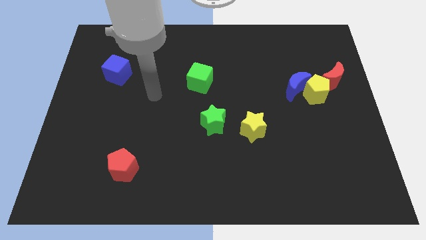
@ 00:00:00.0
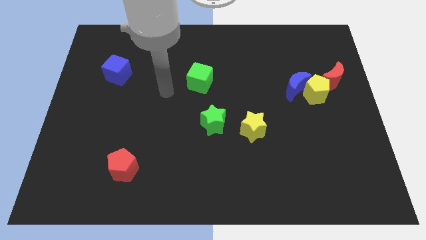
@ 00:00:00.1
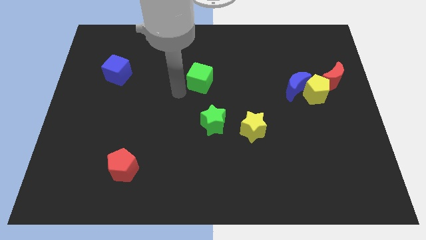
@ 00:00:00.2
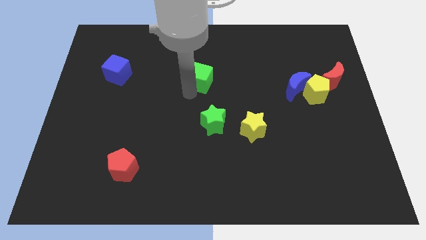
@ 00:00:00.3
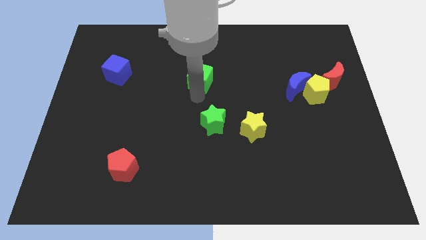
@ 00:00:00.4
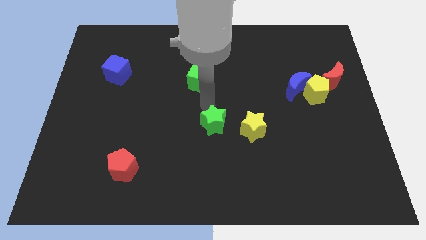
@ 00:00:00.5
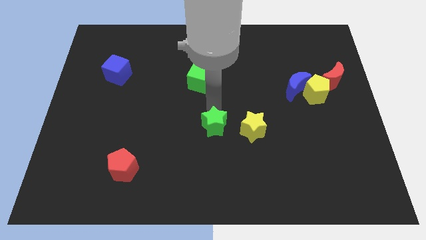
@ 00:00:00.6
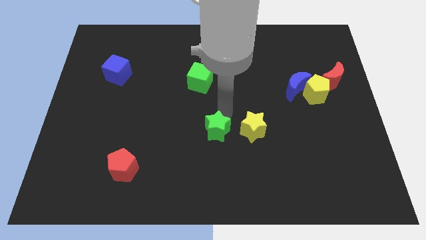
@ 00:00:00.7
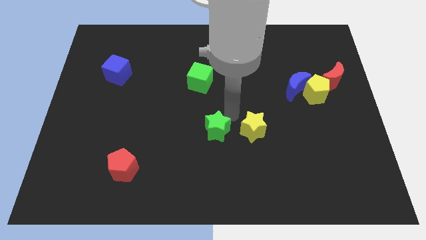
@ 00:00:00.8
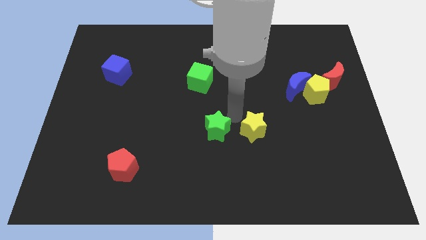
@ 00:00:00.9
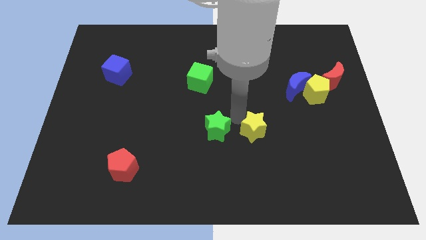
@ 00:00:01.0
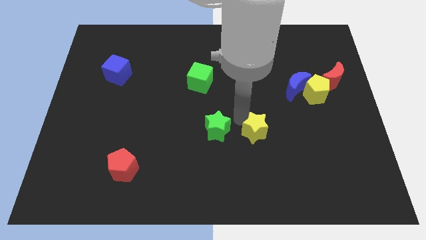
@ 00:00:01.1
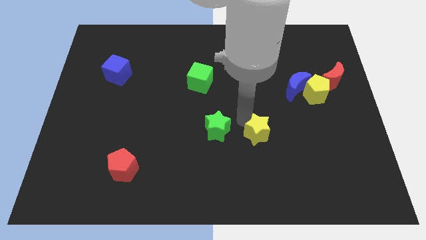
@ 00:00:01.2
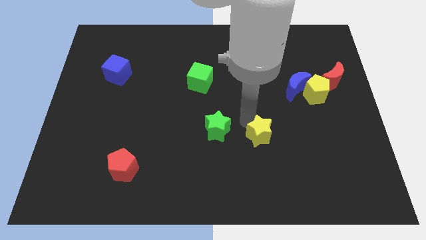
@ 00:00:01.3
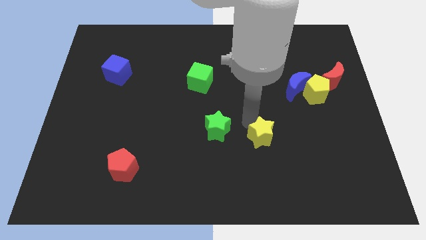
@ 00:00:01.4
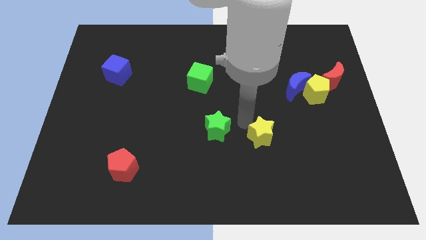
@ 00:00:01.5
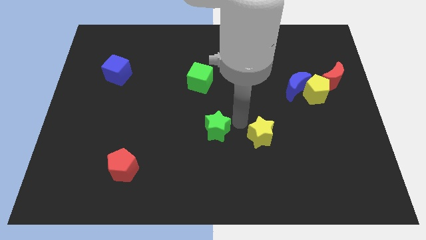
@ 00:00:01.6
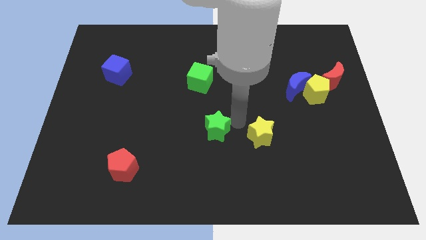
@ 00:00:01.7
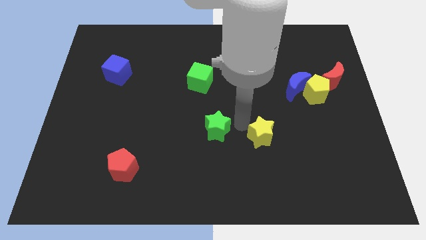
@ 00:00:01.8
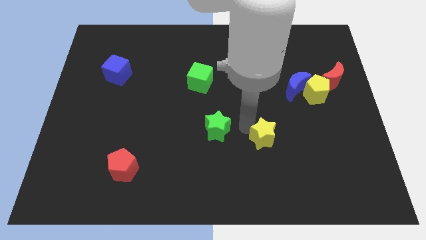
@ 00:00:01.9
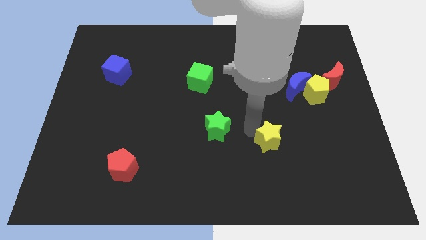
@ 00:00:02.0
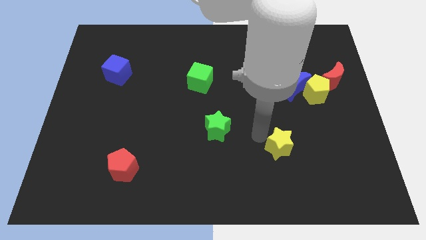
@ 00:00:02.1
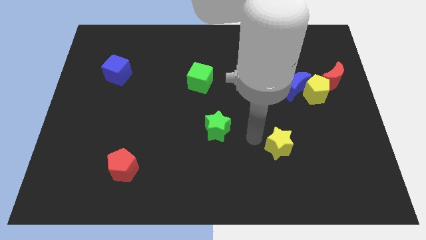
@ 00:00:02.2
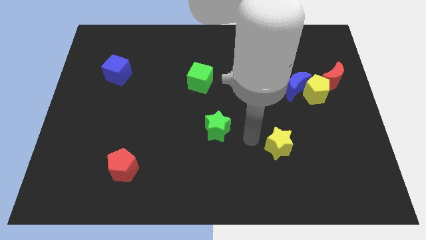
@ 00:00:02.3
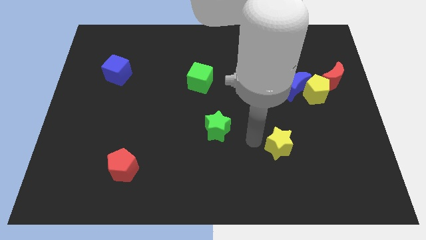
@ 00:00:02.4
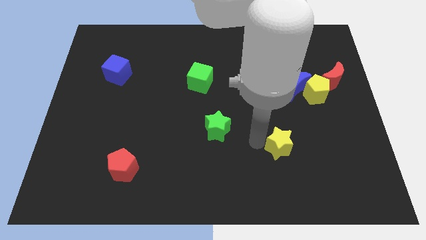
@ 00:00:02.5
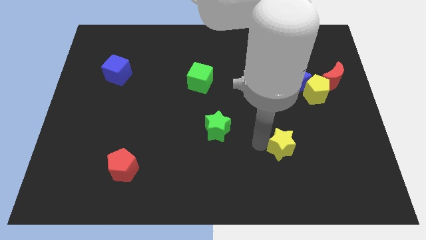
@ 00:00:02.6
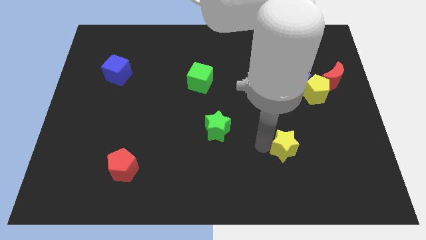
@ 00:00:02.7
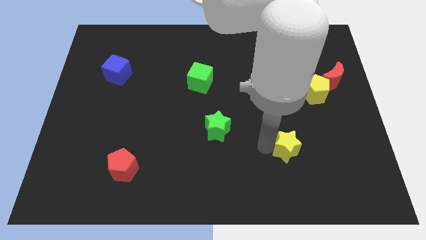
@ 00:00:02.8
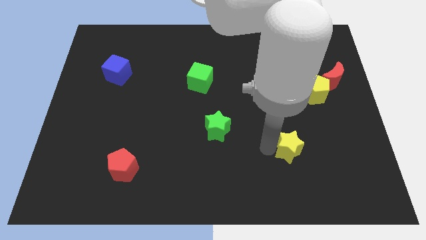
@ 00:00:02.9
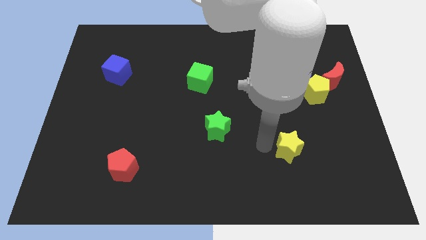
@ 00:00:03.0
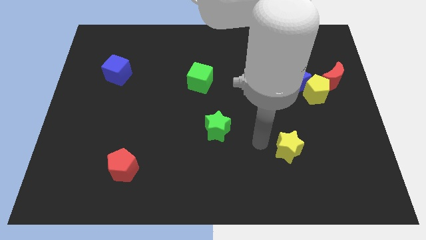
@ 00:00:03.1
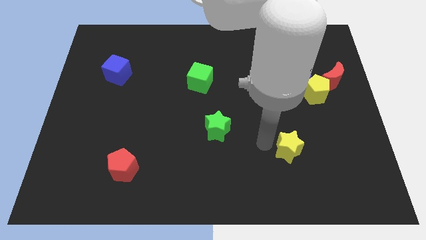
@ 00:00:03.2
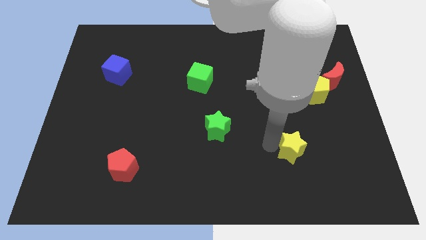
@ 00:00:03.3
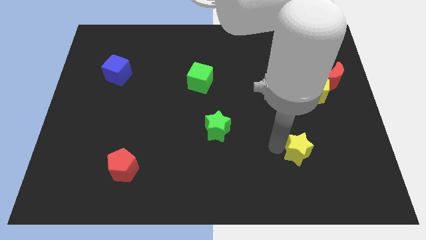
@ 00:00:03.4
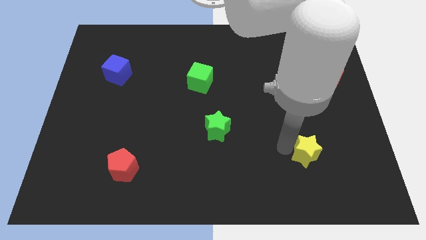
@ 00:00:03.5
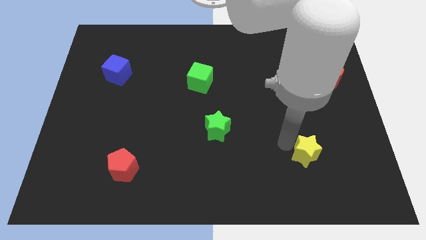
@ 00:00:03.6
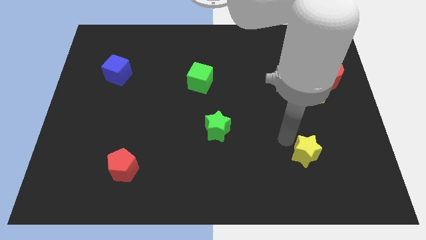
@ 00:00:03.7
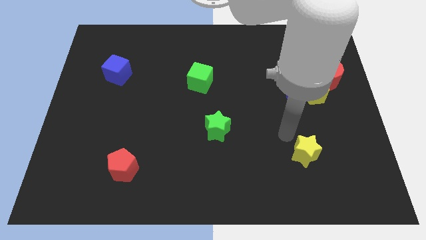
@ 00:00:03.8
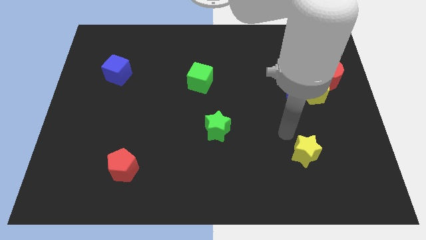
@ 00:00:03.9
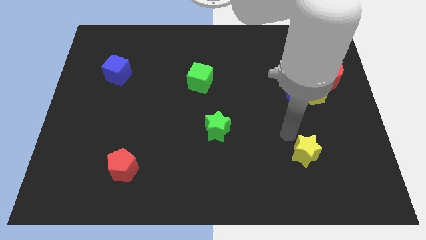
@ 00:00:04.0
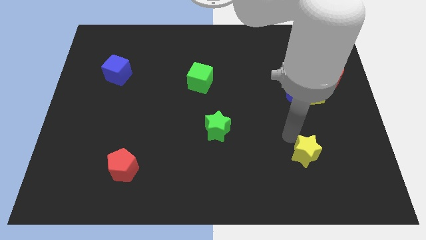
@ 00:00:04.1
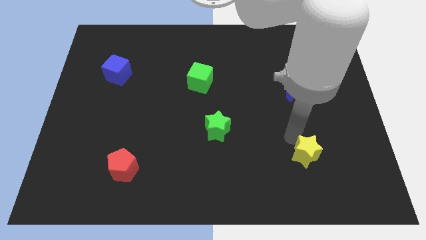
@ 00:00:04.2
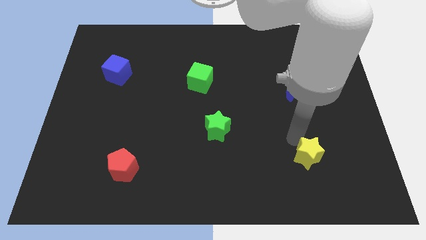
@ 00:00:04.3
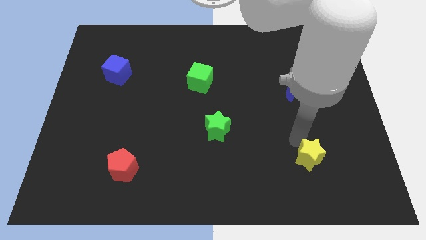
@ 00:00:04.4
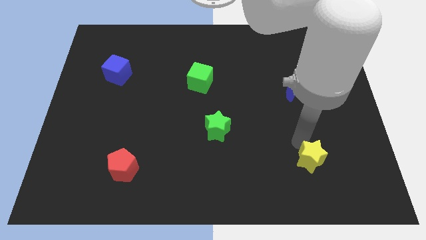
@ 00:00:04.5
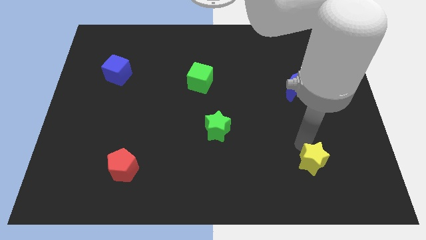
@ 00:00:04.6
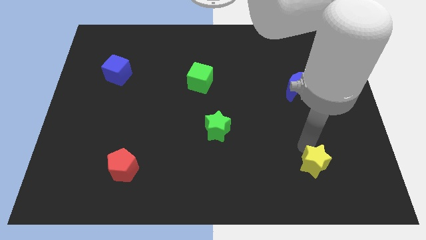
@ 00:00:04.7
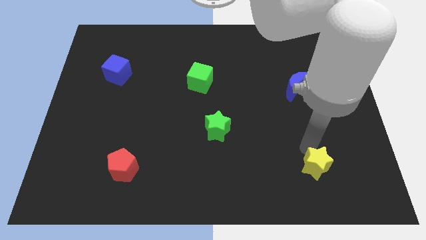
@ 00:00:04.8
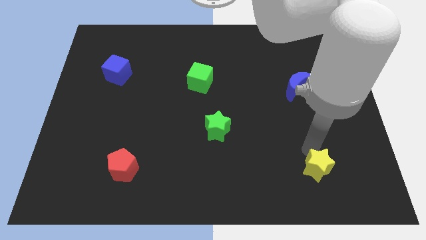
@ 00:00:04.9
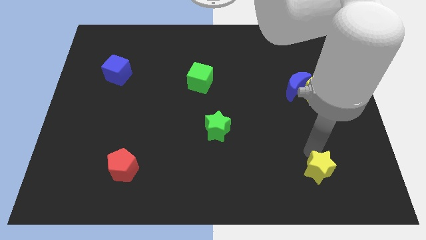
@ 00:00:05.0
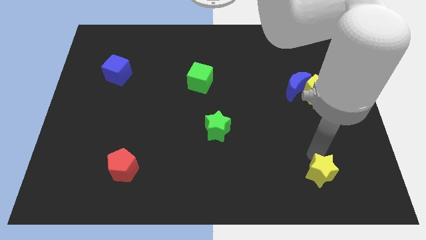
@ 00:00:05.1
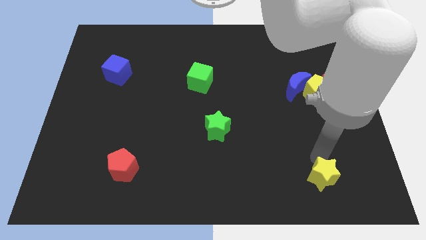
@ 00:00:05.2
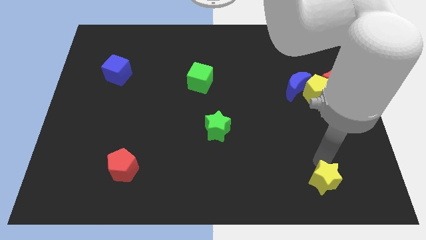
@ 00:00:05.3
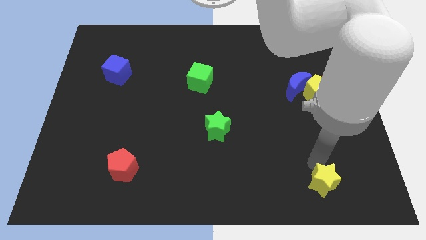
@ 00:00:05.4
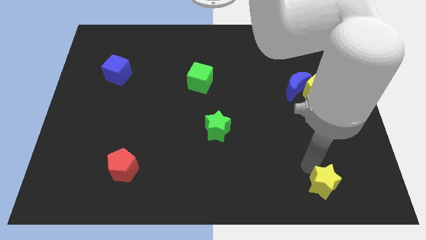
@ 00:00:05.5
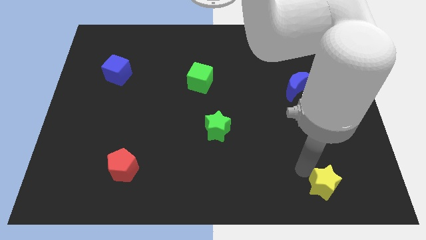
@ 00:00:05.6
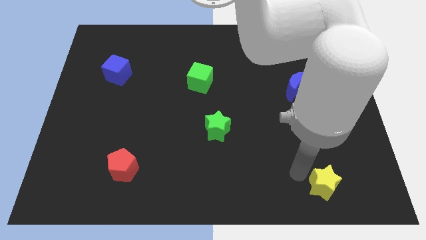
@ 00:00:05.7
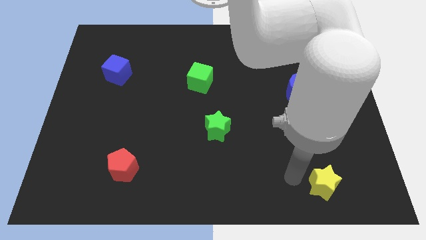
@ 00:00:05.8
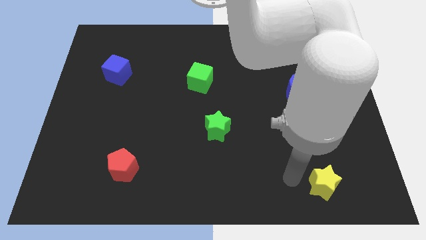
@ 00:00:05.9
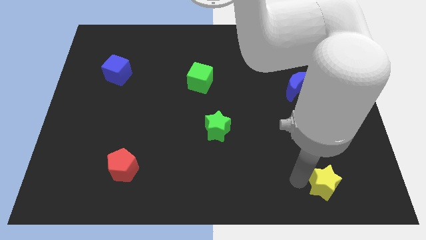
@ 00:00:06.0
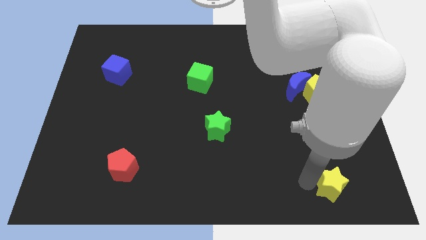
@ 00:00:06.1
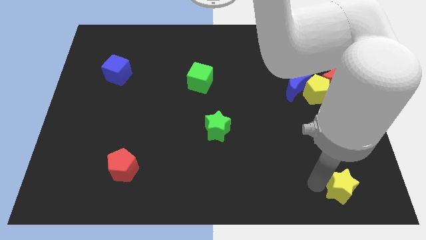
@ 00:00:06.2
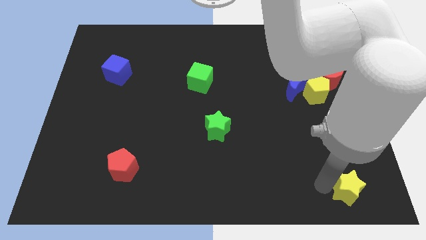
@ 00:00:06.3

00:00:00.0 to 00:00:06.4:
move the yellow star to the bottom right of the board
